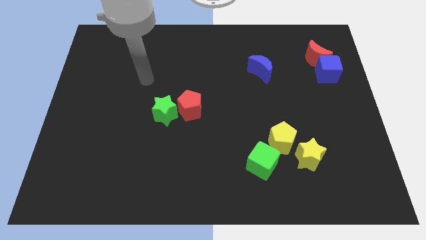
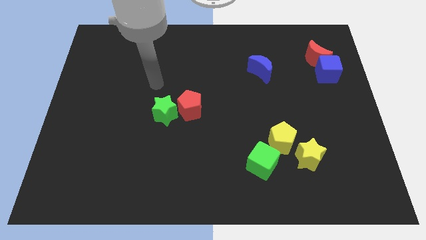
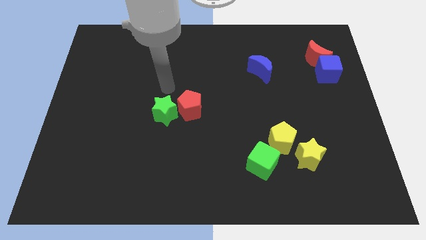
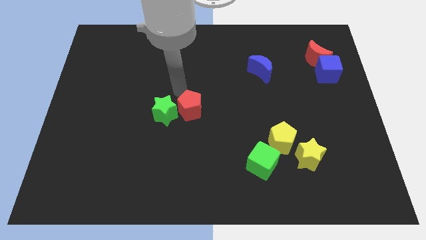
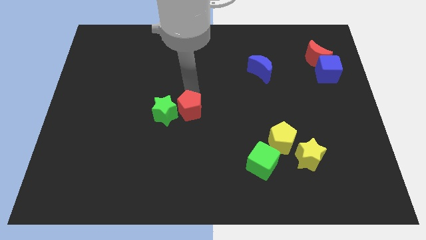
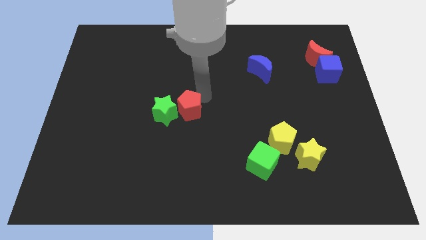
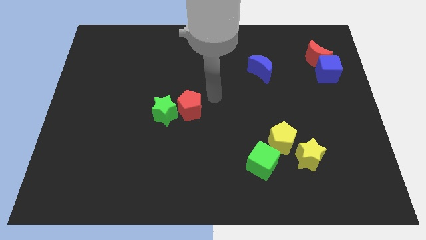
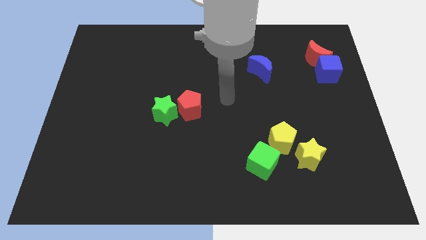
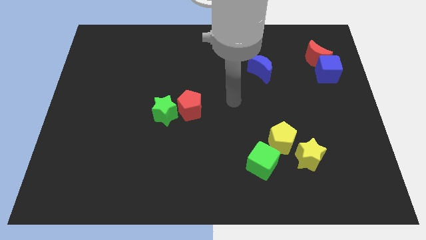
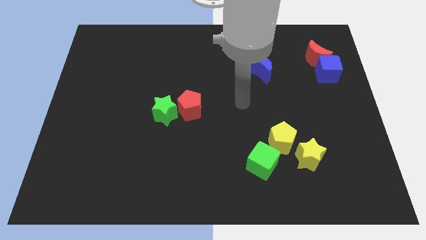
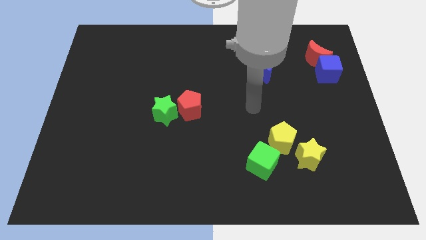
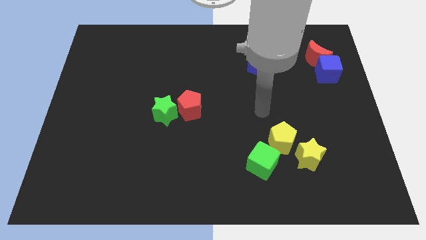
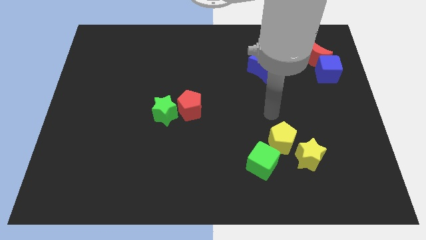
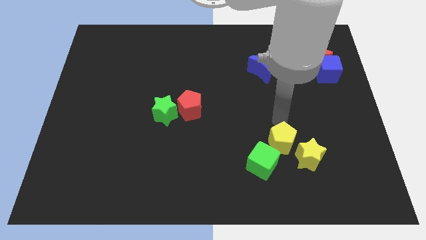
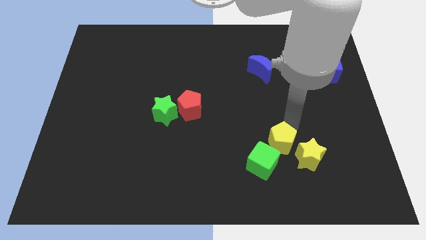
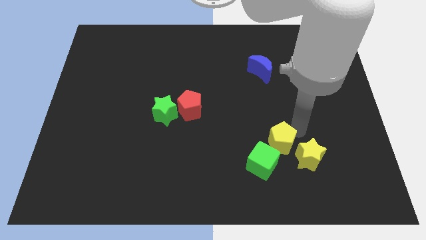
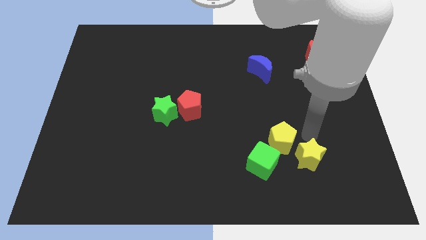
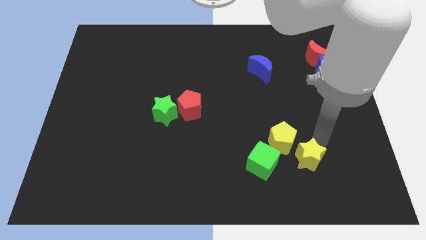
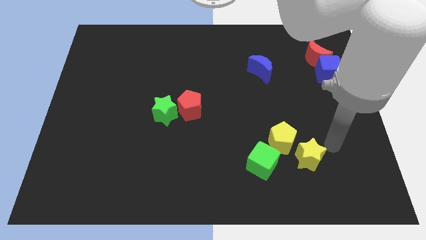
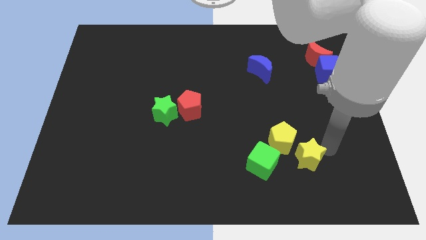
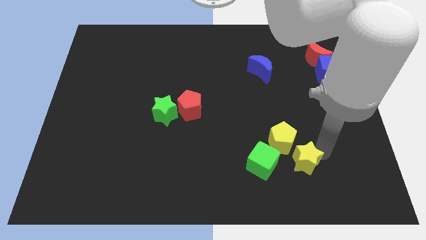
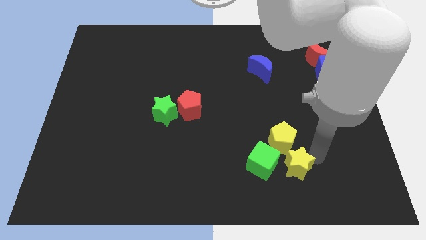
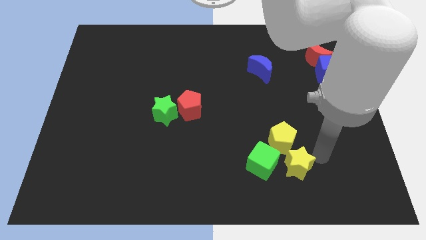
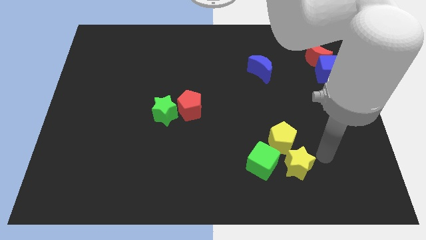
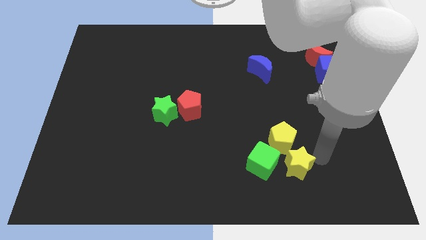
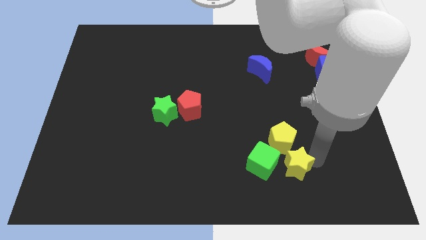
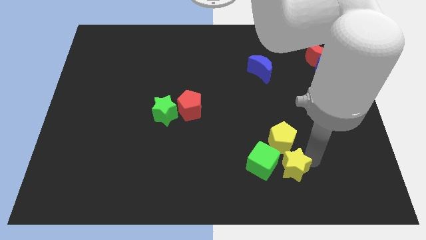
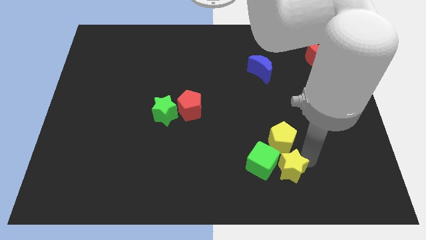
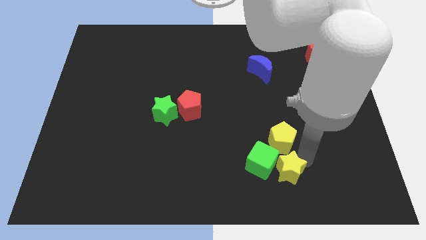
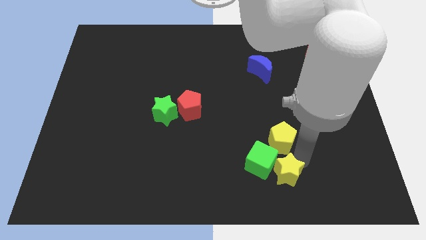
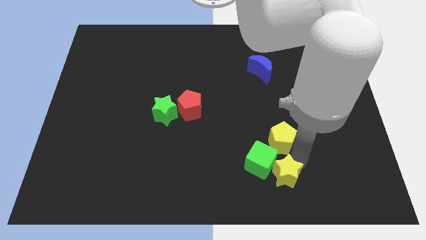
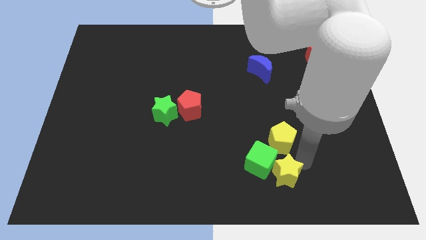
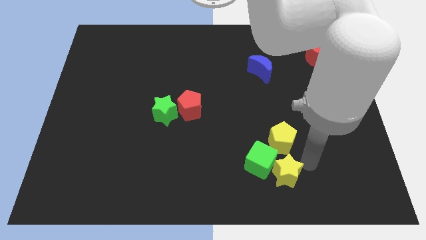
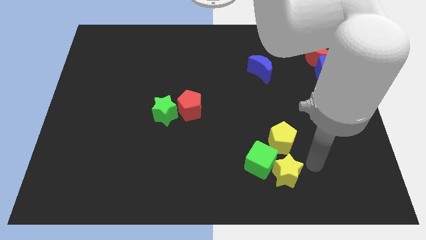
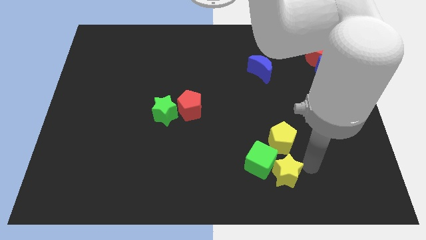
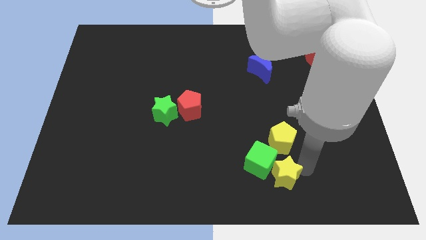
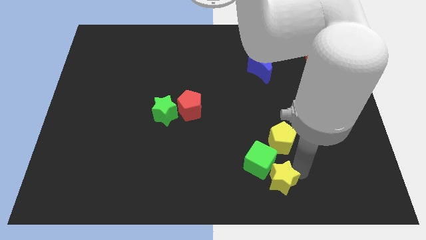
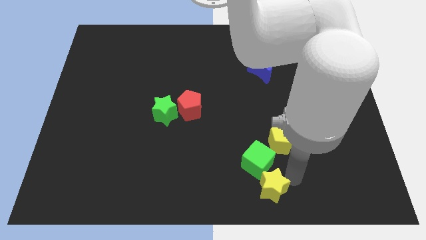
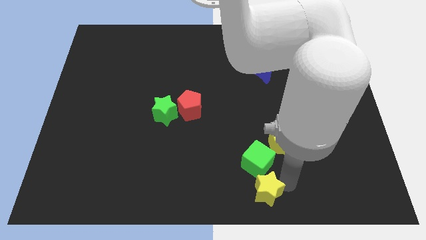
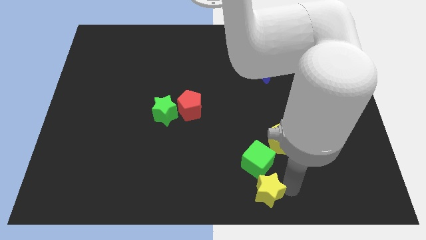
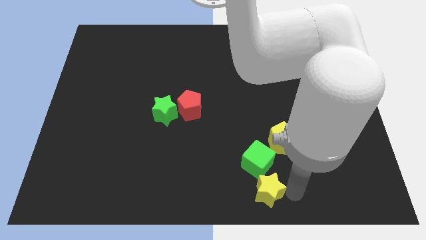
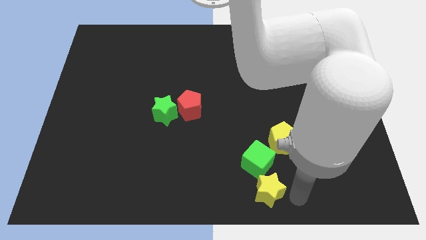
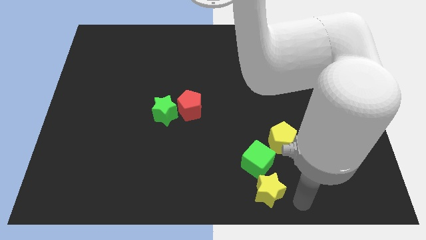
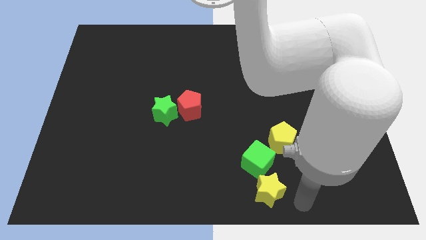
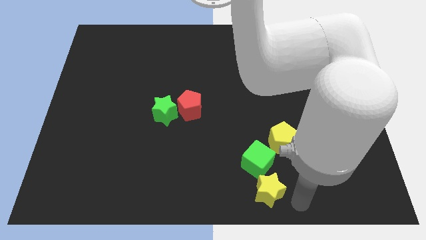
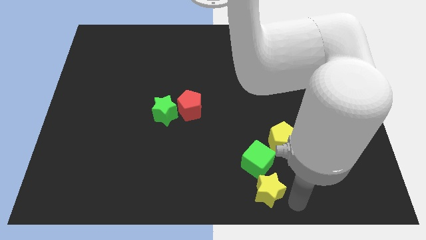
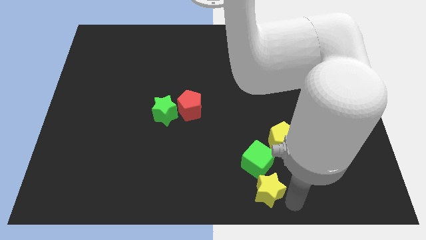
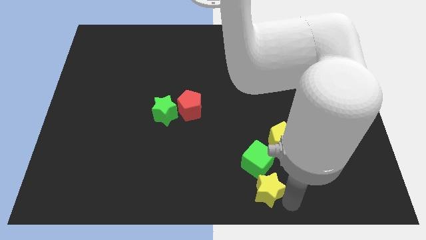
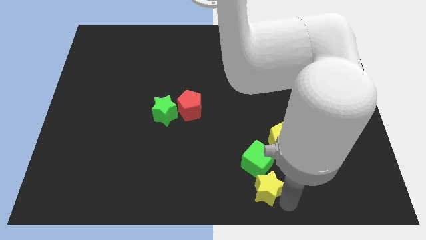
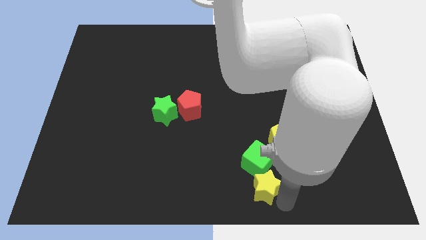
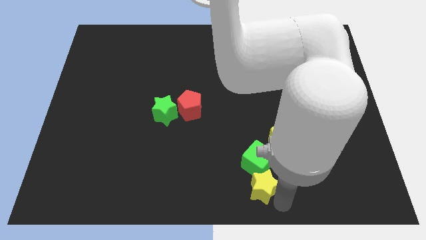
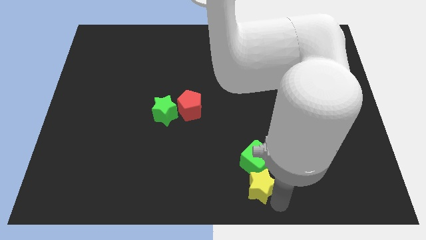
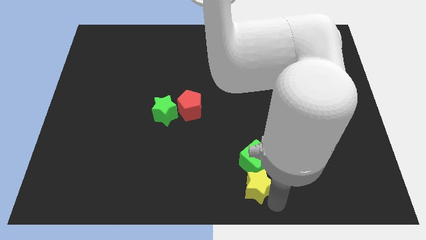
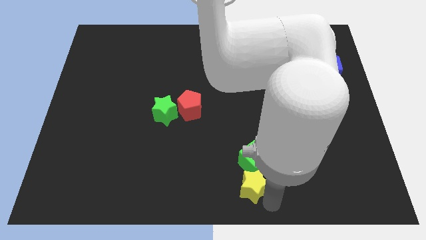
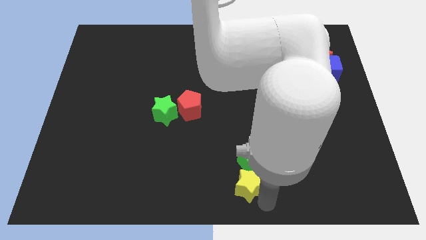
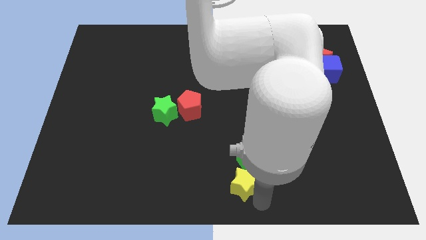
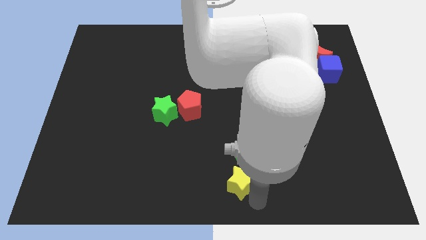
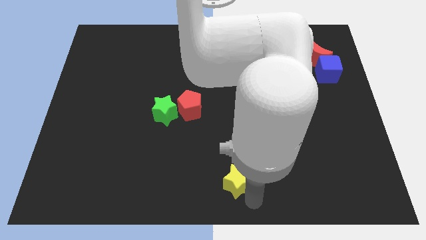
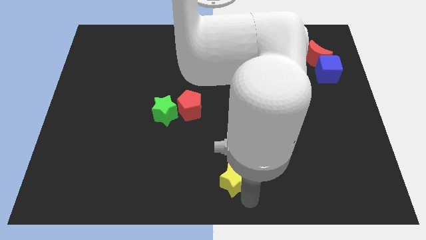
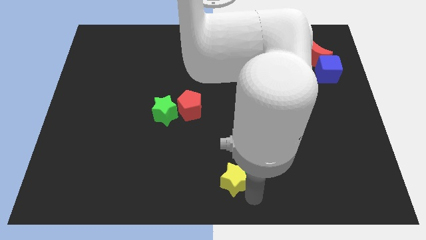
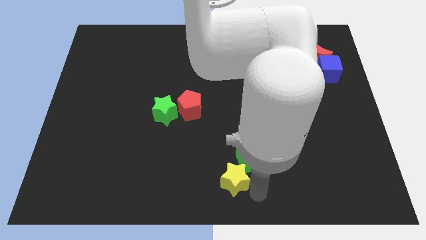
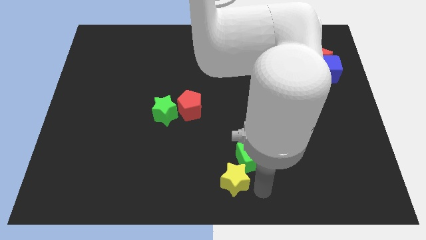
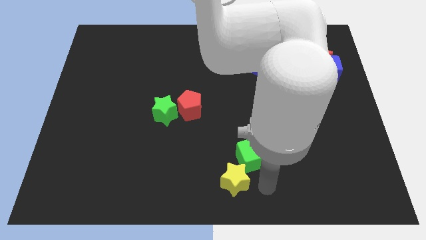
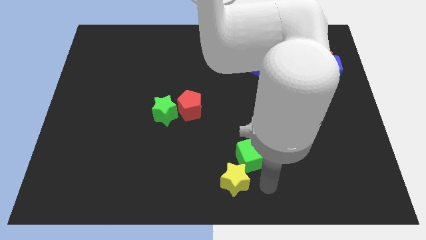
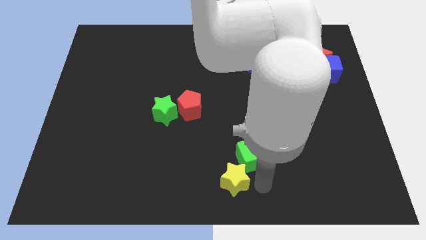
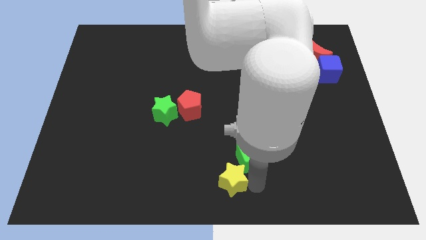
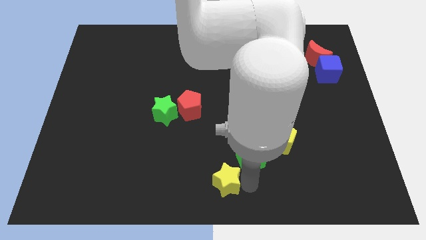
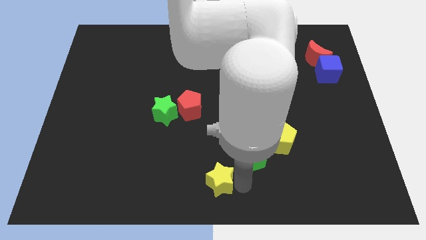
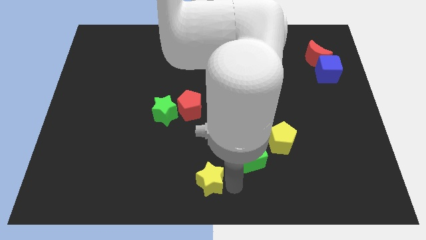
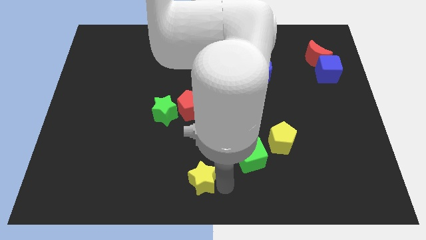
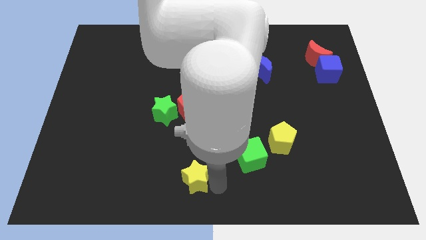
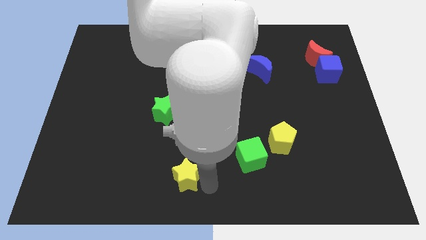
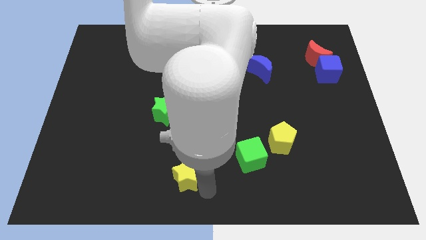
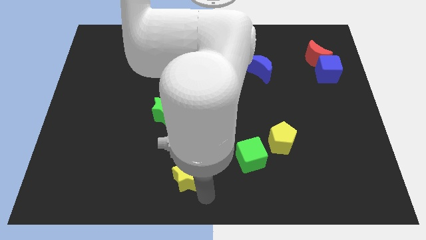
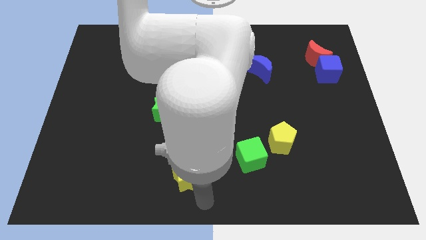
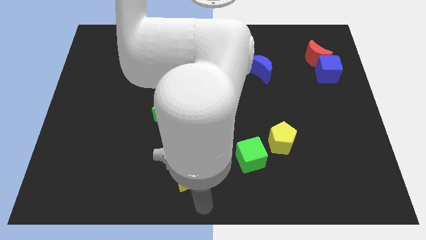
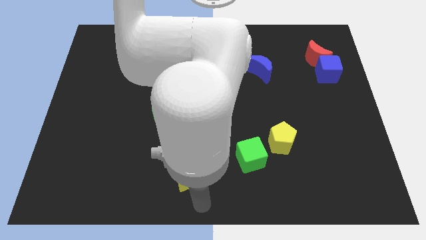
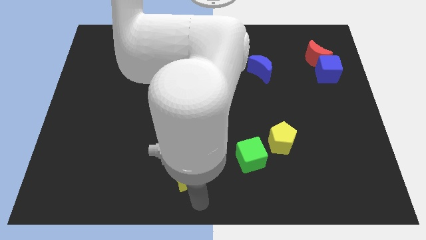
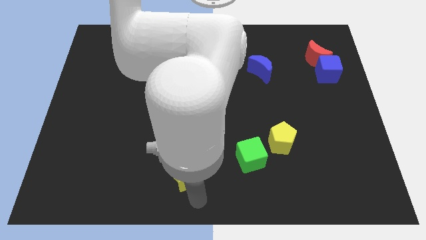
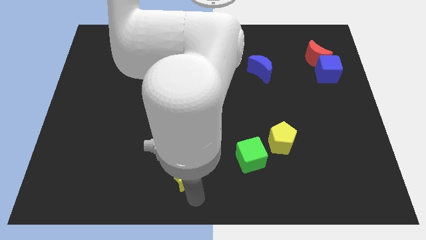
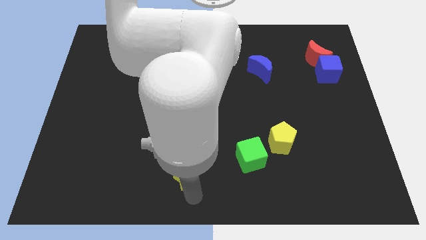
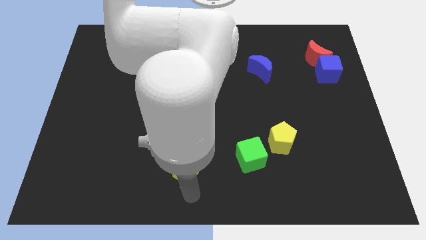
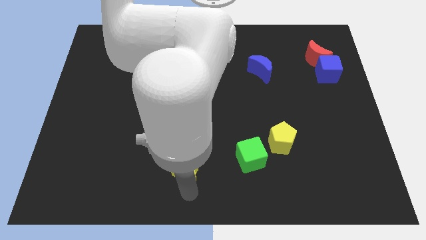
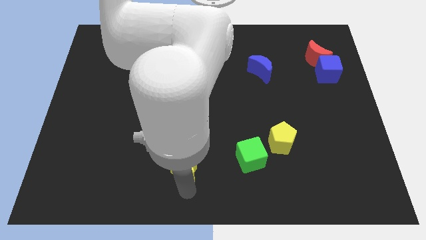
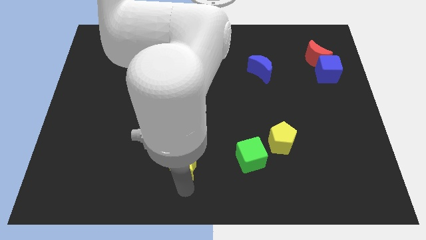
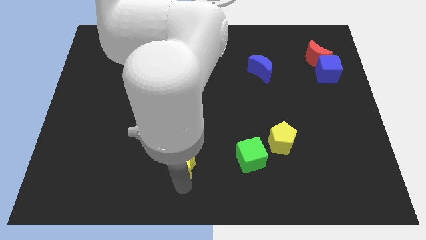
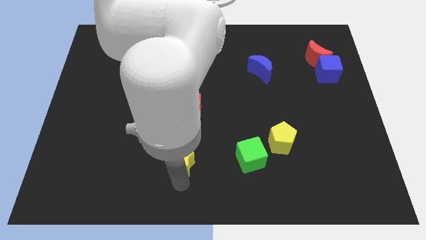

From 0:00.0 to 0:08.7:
put the yellow star to the bottom side of the green star
